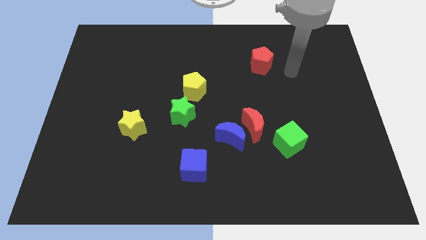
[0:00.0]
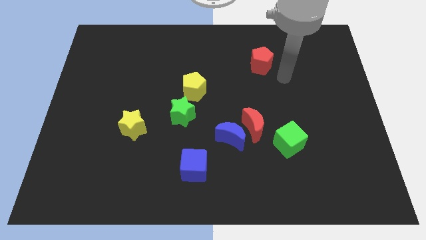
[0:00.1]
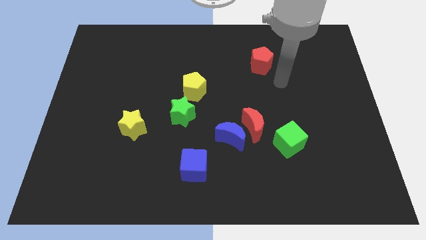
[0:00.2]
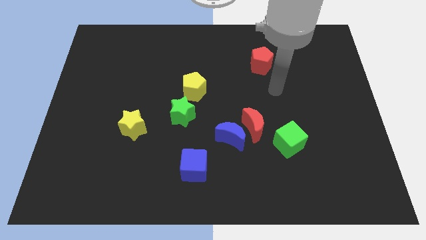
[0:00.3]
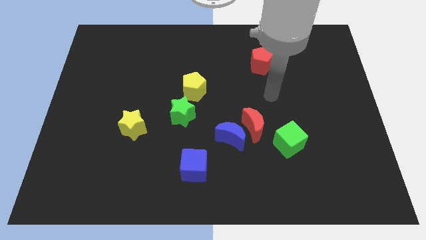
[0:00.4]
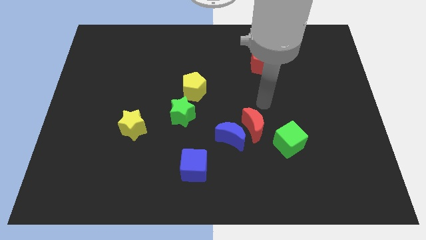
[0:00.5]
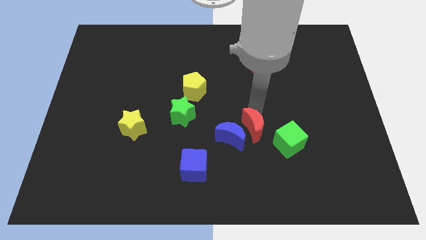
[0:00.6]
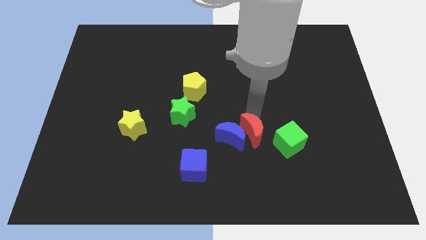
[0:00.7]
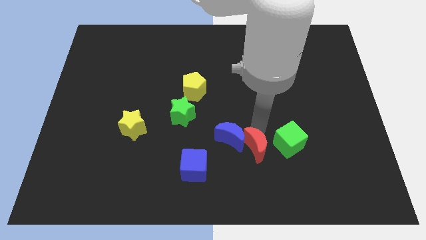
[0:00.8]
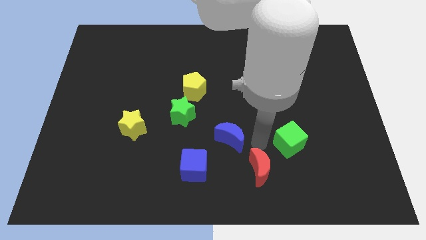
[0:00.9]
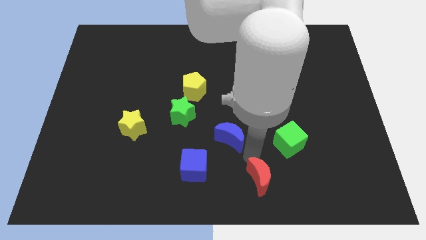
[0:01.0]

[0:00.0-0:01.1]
move the blue moon away from the red moon

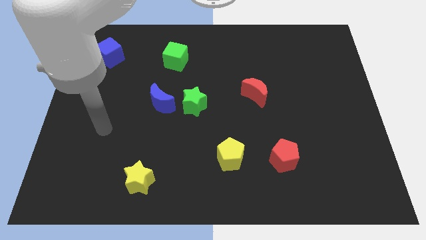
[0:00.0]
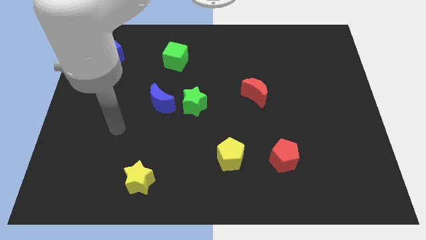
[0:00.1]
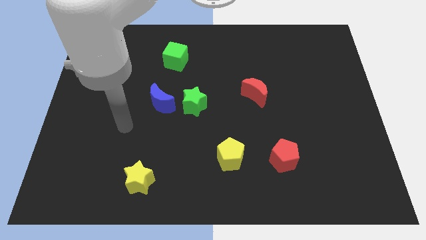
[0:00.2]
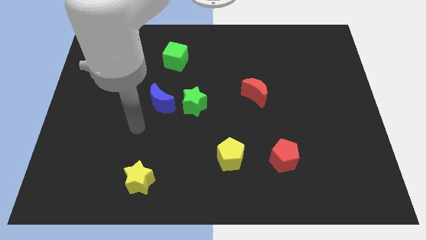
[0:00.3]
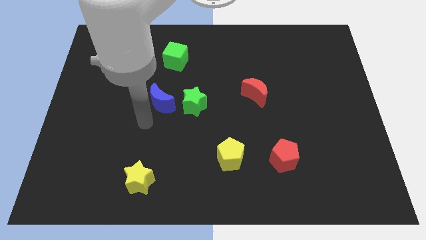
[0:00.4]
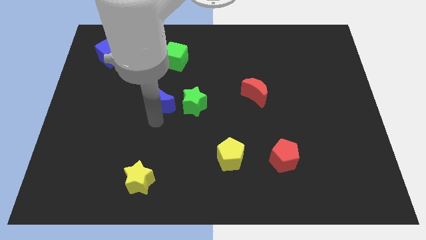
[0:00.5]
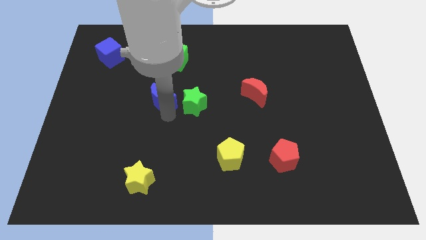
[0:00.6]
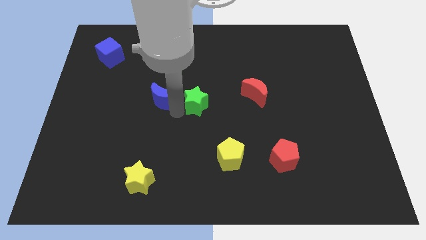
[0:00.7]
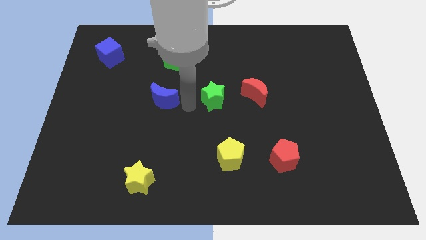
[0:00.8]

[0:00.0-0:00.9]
separate the blue moon from the green star

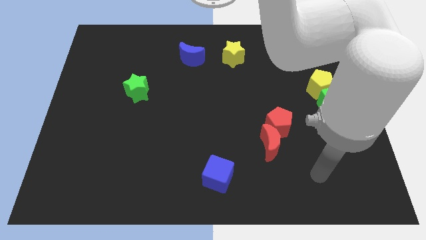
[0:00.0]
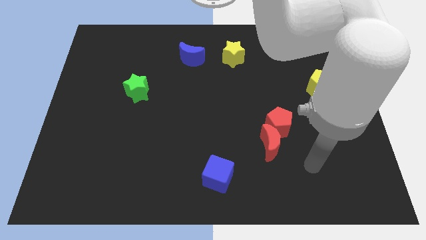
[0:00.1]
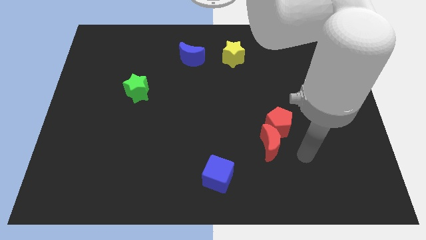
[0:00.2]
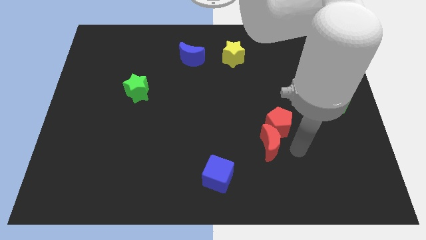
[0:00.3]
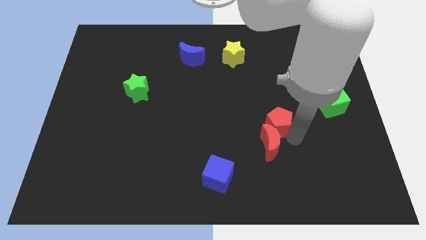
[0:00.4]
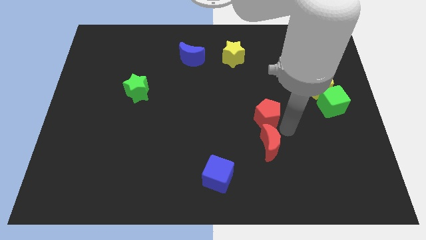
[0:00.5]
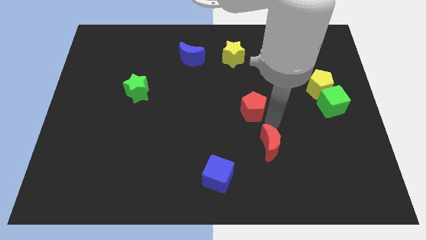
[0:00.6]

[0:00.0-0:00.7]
pull the red moon apart from the red pentagon

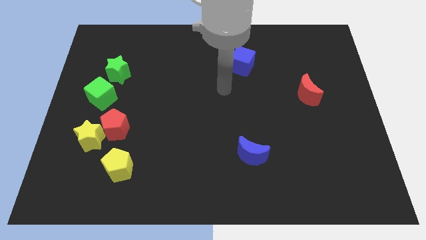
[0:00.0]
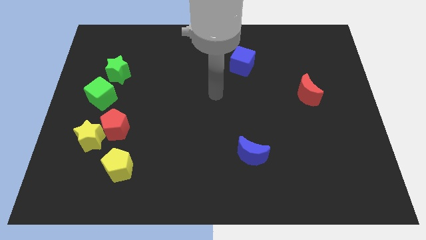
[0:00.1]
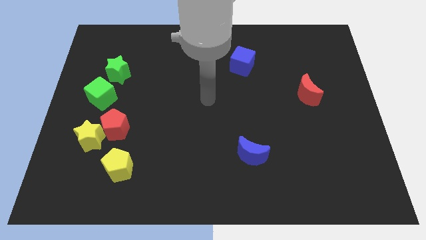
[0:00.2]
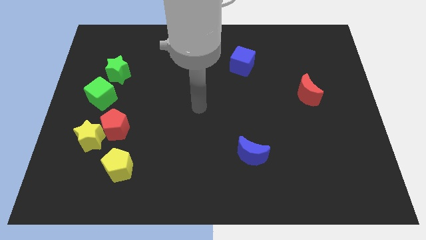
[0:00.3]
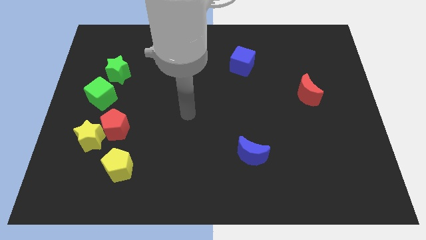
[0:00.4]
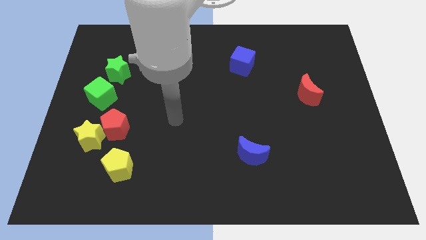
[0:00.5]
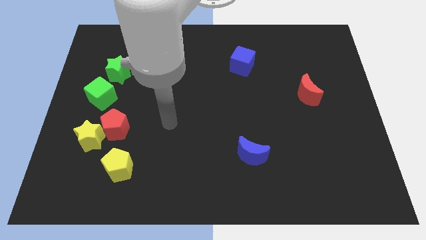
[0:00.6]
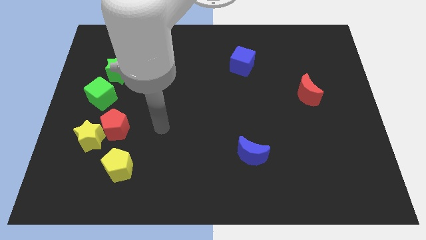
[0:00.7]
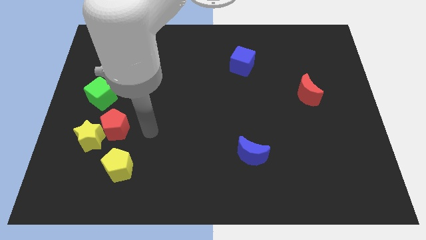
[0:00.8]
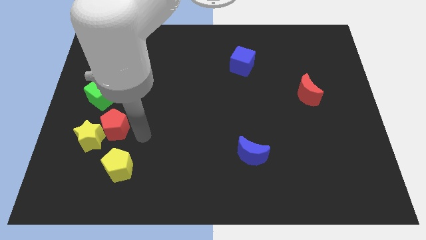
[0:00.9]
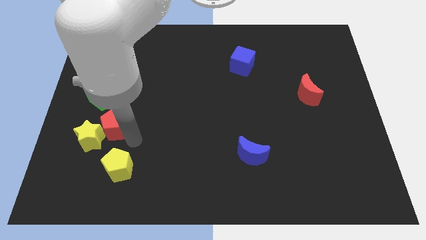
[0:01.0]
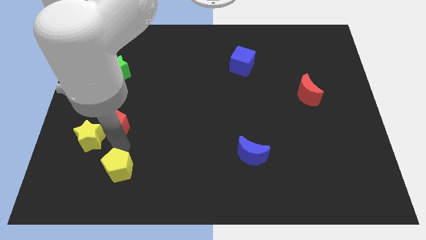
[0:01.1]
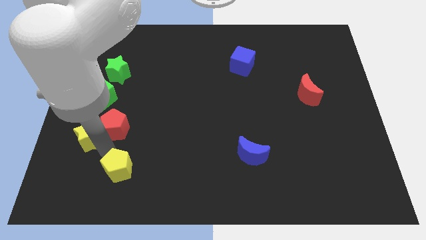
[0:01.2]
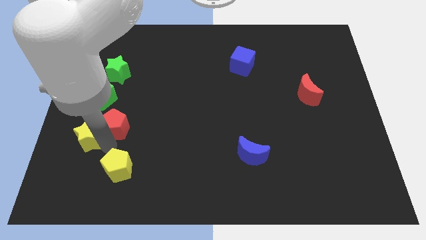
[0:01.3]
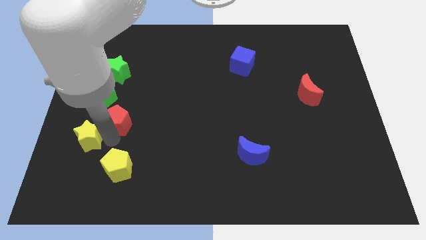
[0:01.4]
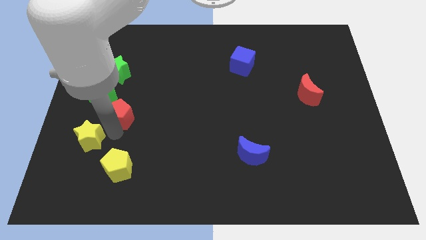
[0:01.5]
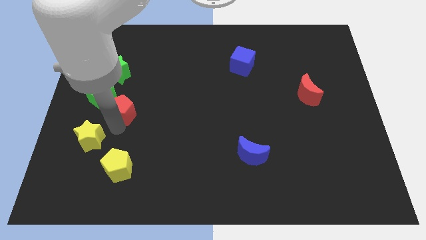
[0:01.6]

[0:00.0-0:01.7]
move the red pentagon away from the yellow star and yellow pentagon

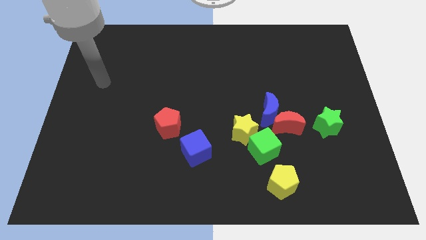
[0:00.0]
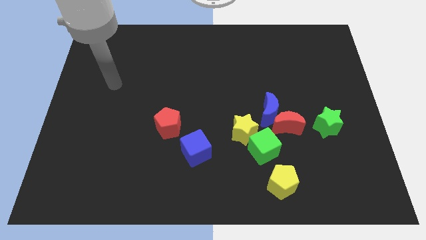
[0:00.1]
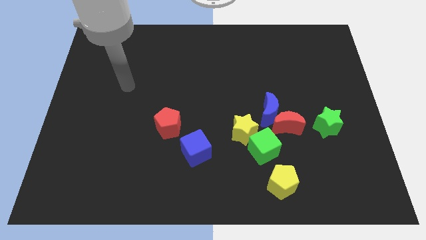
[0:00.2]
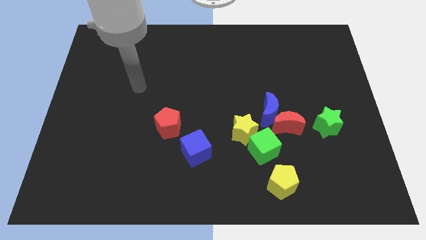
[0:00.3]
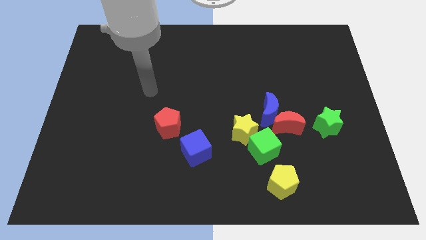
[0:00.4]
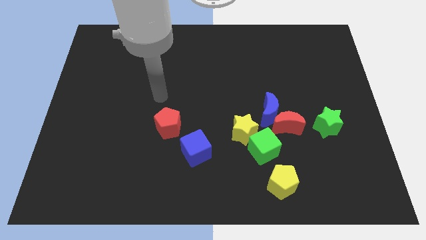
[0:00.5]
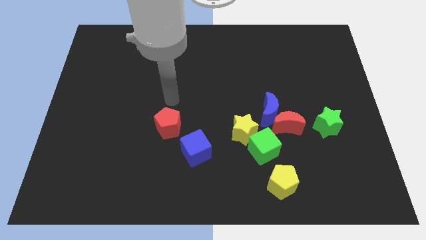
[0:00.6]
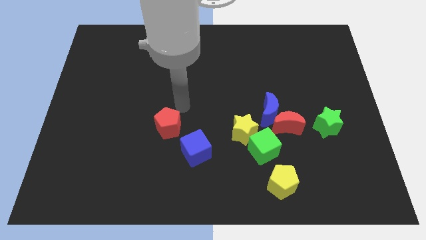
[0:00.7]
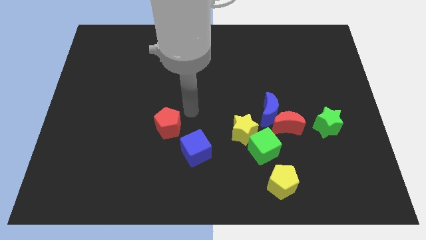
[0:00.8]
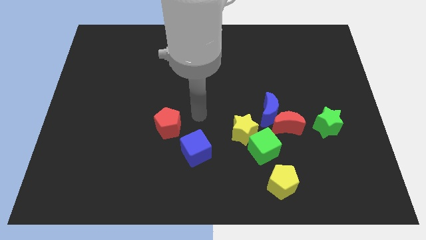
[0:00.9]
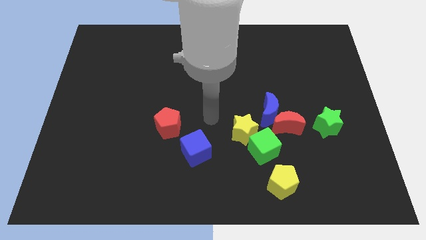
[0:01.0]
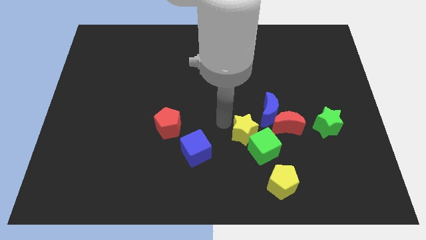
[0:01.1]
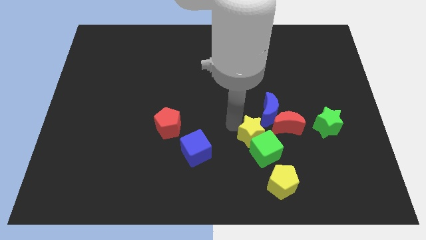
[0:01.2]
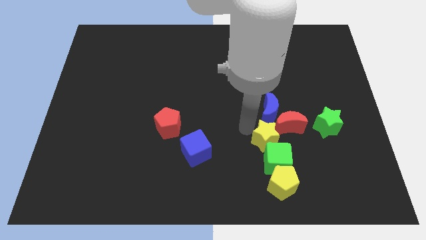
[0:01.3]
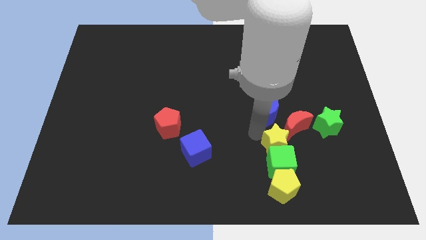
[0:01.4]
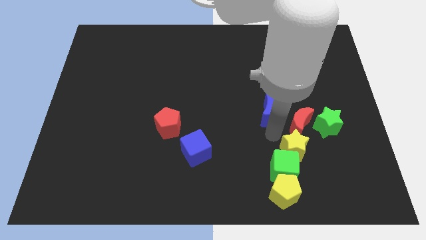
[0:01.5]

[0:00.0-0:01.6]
move the blue moon away from the clump

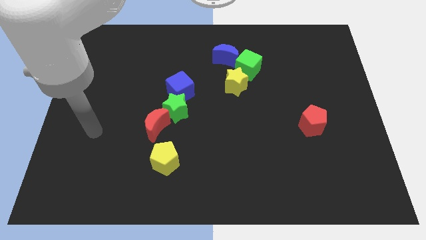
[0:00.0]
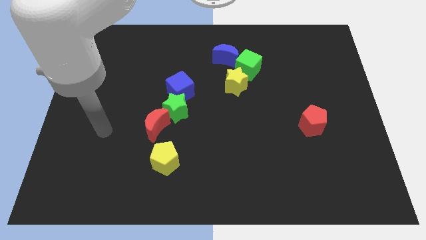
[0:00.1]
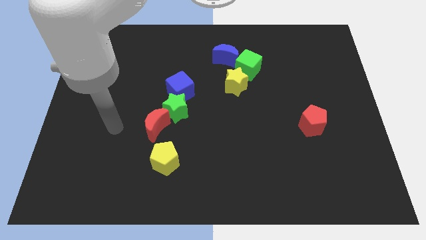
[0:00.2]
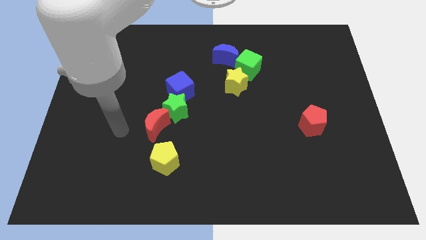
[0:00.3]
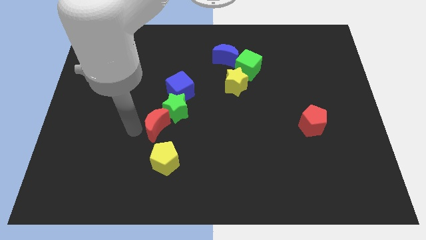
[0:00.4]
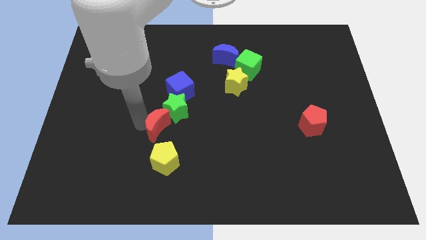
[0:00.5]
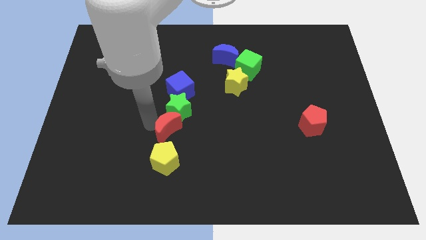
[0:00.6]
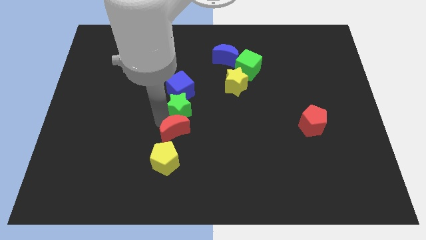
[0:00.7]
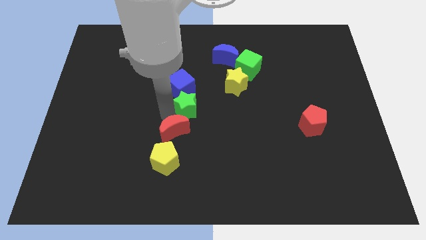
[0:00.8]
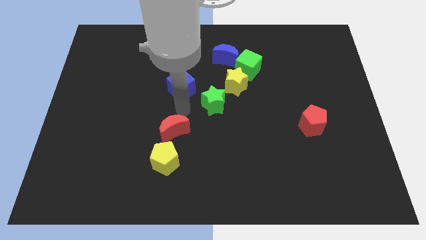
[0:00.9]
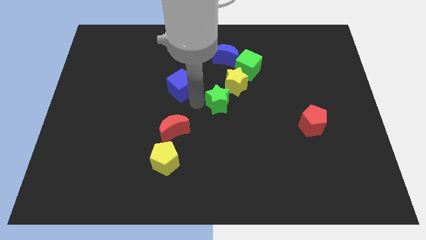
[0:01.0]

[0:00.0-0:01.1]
pull the blue cube apart from the green star

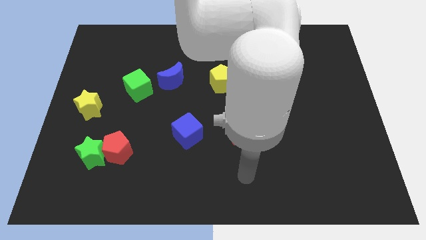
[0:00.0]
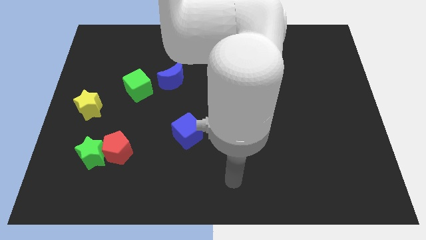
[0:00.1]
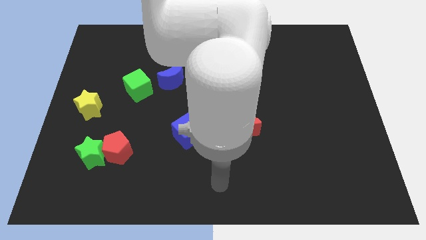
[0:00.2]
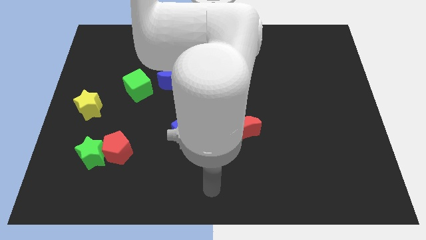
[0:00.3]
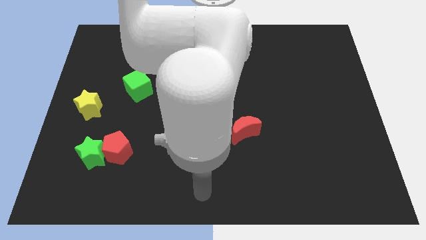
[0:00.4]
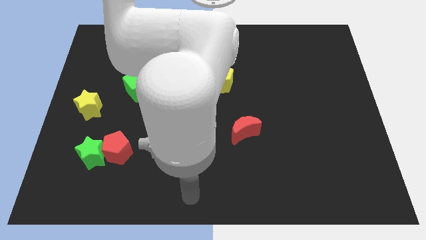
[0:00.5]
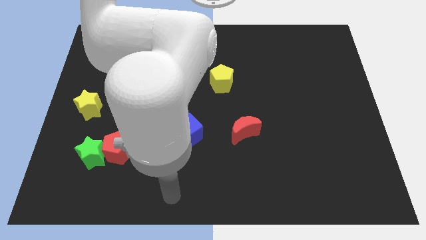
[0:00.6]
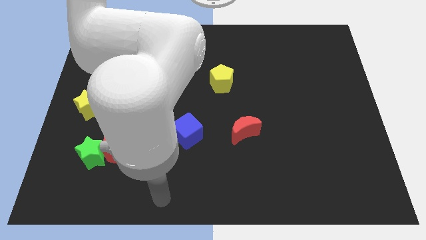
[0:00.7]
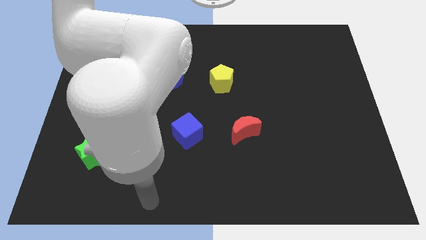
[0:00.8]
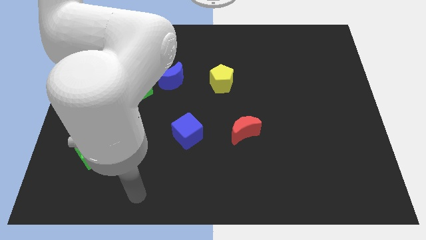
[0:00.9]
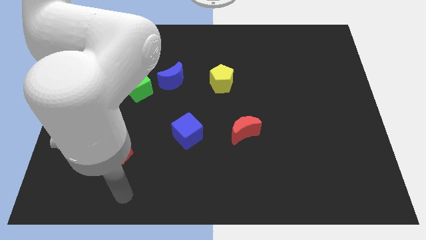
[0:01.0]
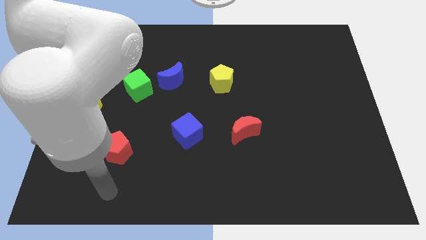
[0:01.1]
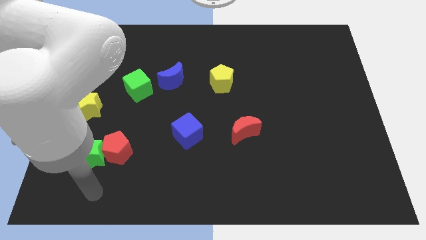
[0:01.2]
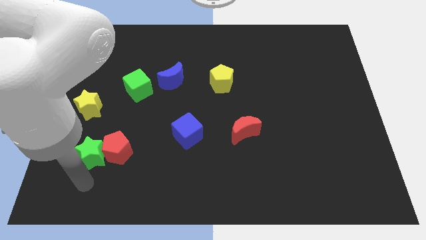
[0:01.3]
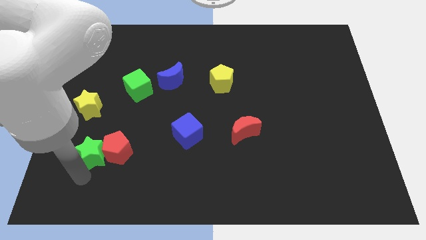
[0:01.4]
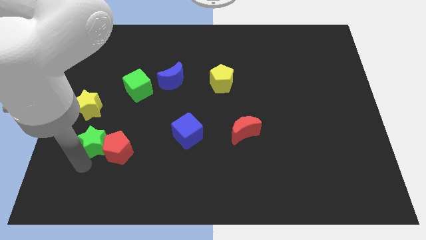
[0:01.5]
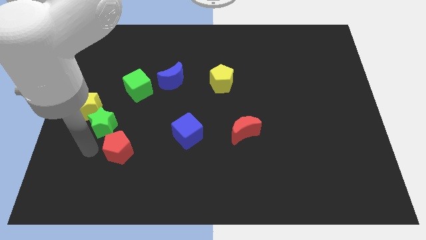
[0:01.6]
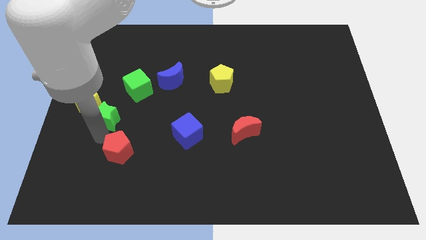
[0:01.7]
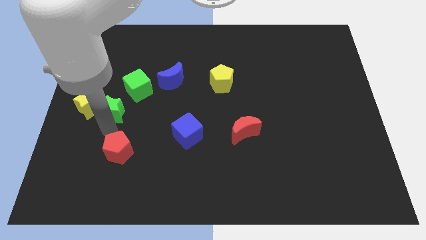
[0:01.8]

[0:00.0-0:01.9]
move the red pentagon away from the green star

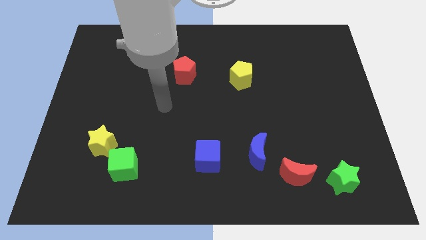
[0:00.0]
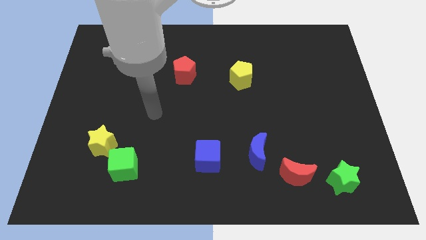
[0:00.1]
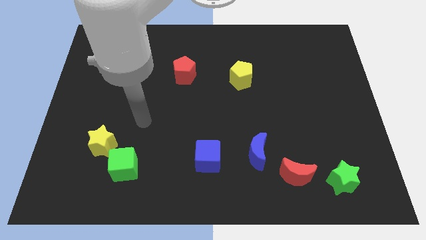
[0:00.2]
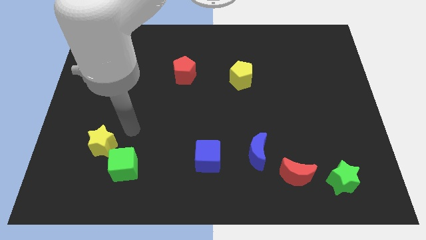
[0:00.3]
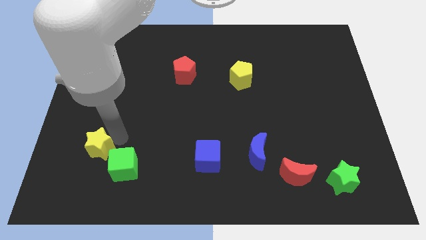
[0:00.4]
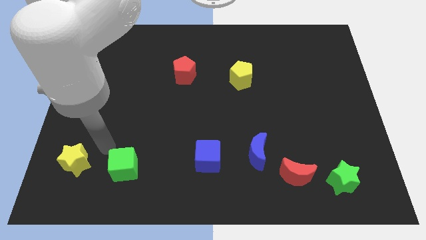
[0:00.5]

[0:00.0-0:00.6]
separate the green cube from the yellow star
